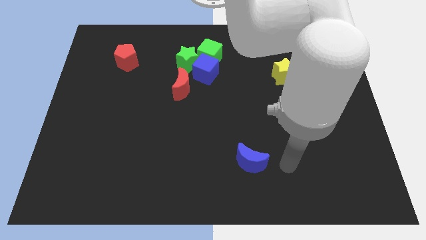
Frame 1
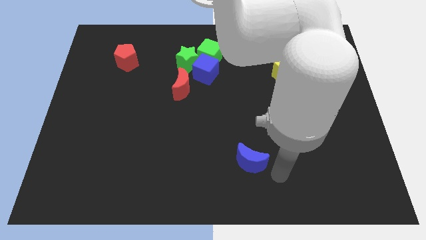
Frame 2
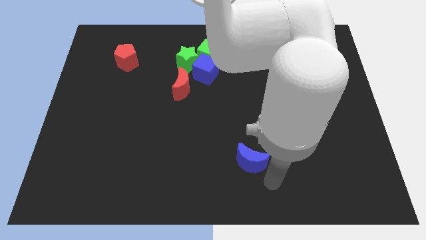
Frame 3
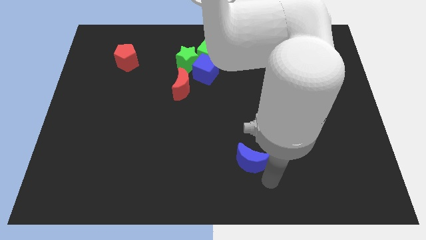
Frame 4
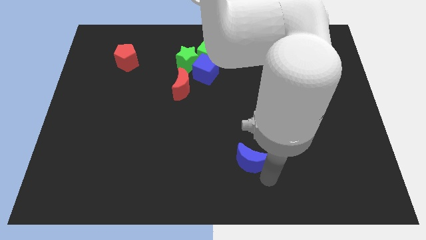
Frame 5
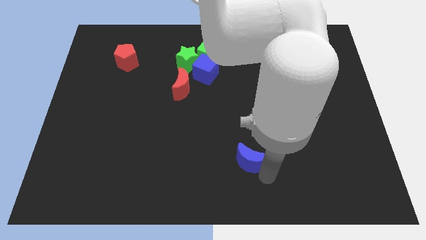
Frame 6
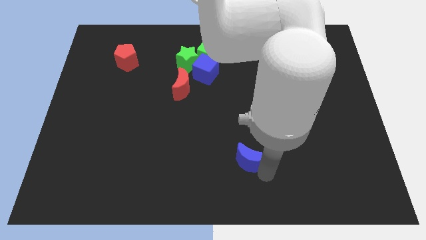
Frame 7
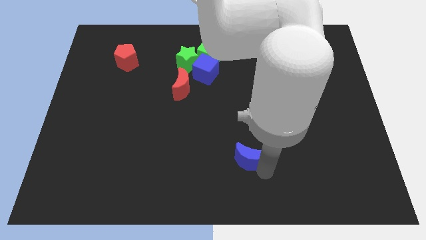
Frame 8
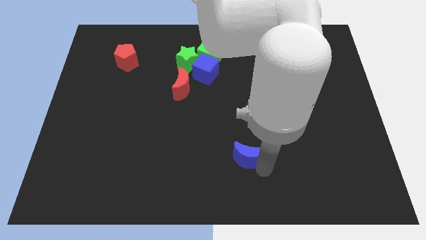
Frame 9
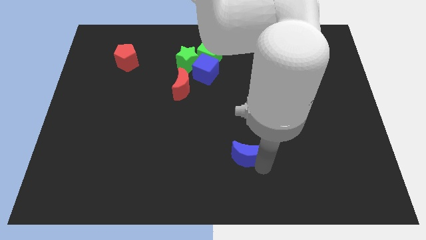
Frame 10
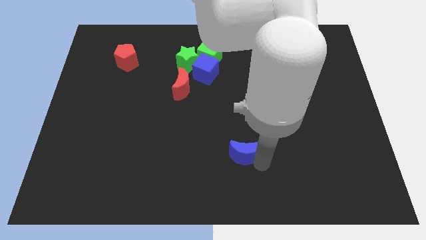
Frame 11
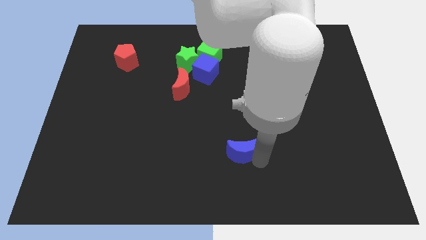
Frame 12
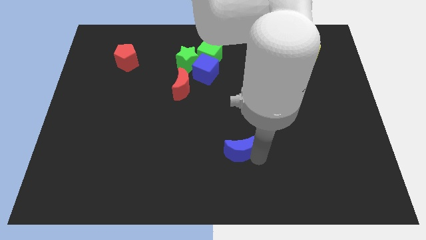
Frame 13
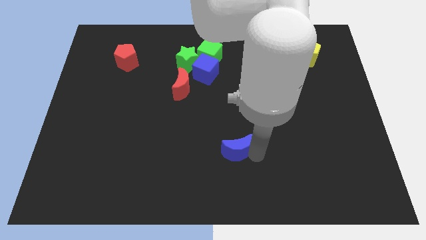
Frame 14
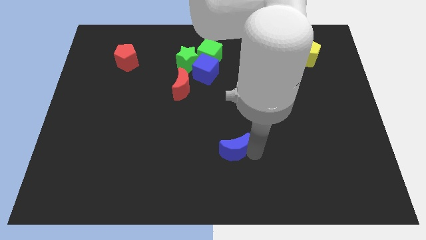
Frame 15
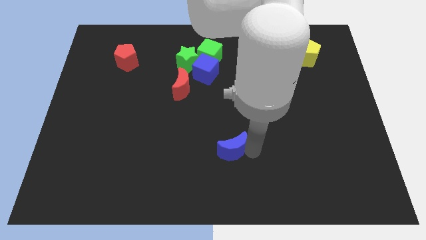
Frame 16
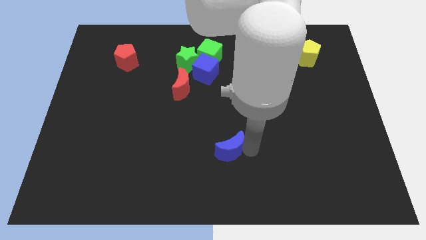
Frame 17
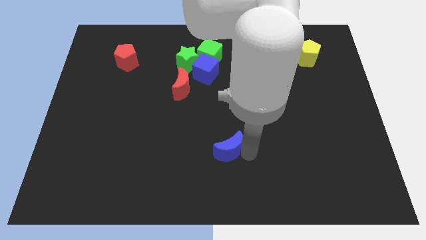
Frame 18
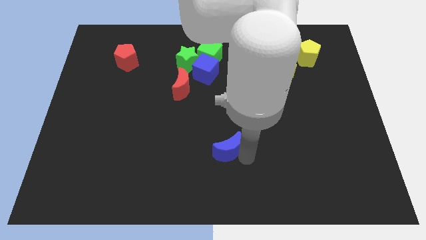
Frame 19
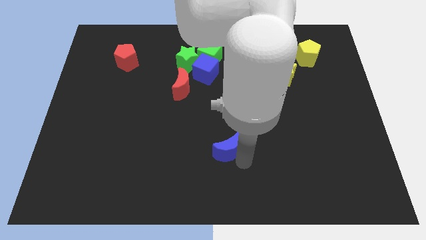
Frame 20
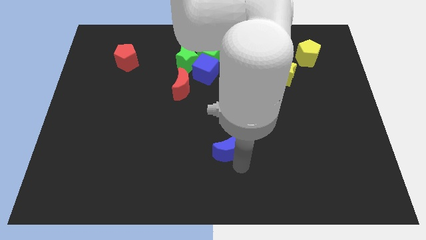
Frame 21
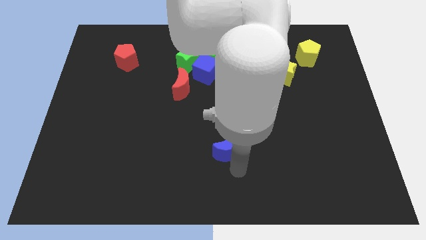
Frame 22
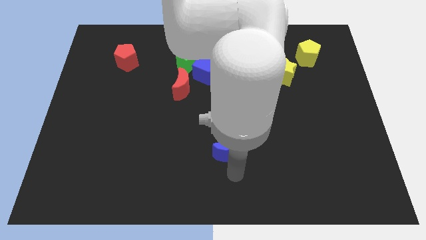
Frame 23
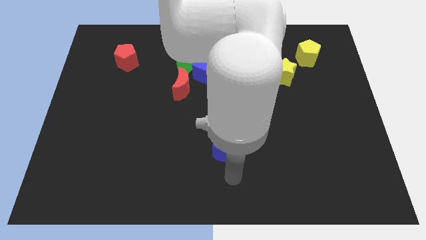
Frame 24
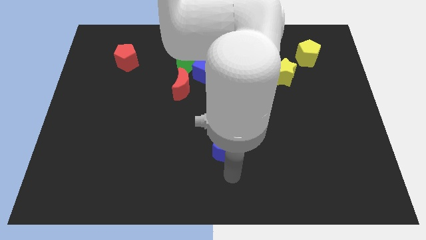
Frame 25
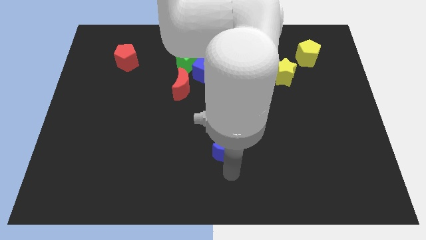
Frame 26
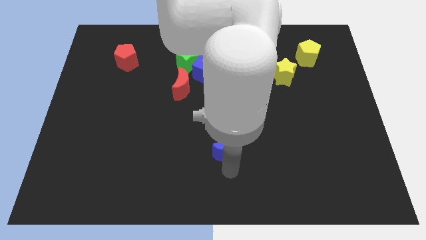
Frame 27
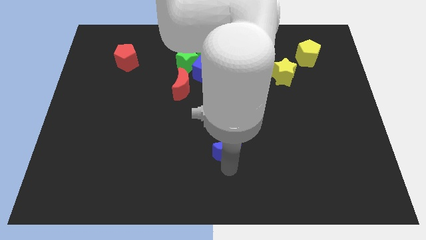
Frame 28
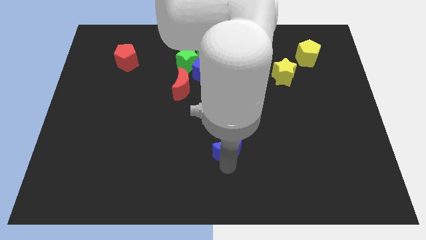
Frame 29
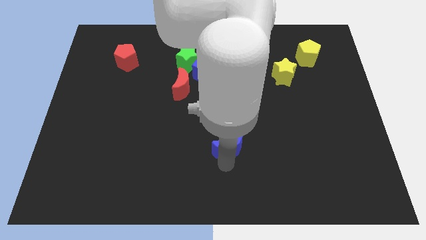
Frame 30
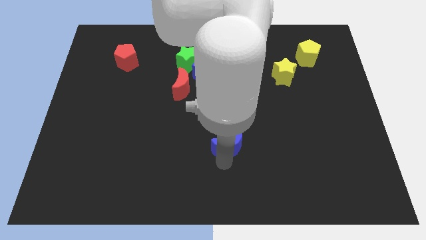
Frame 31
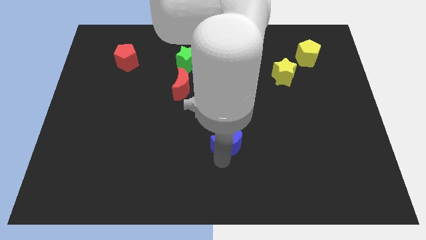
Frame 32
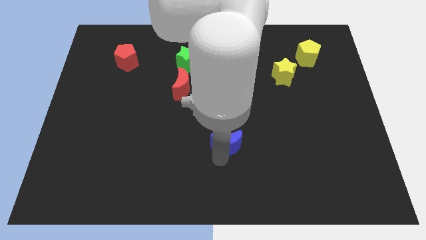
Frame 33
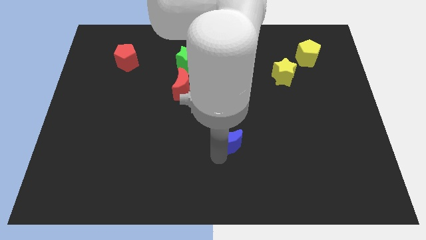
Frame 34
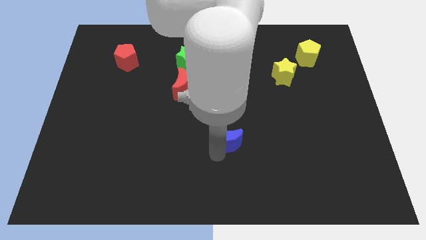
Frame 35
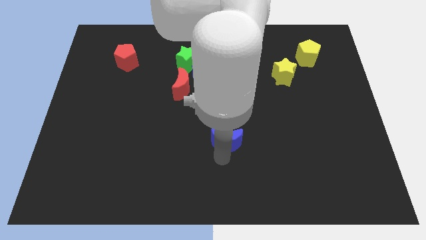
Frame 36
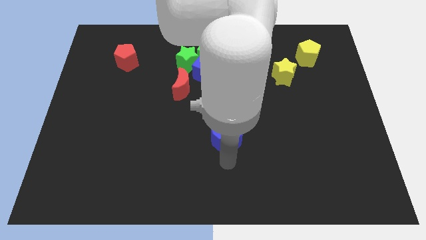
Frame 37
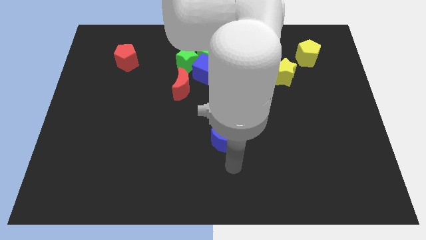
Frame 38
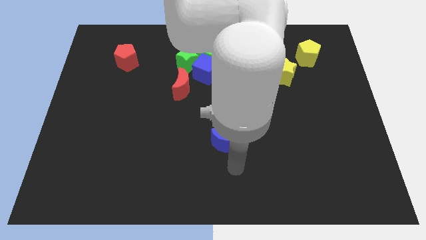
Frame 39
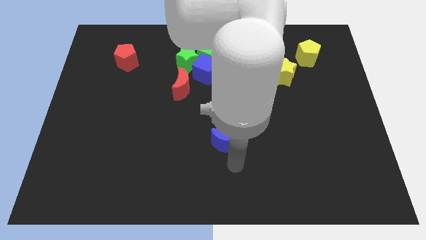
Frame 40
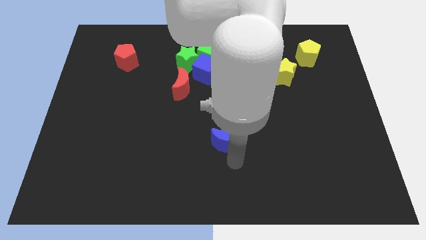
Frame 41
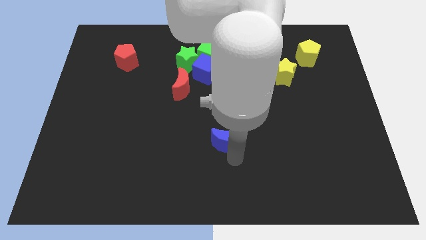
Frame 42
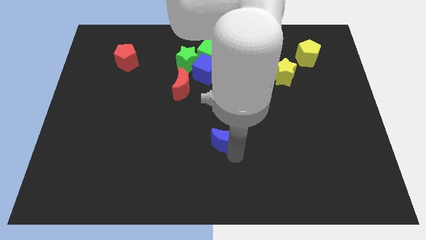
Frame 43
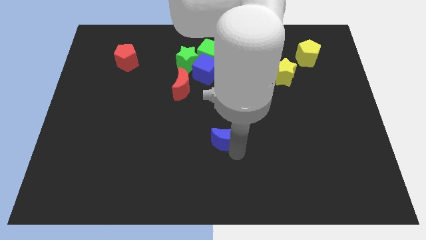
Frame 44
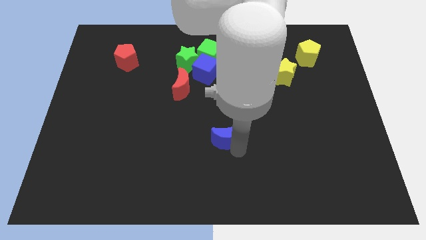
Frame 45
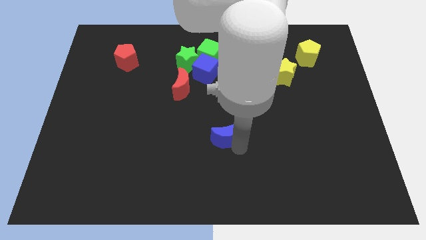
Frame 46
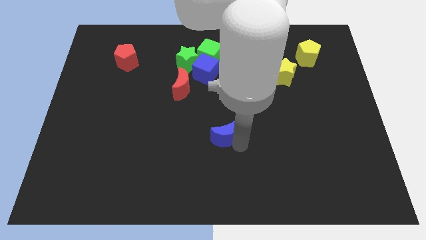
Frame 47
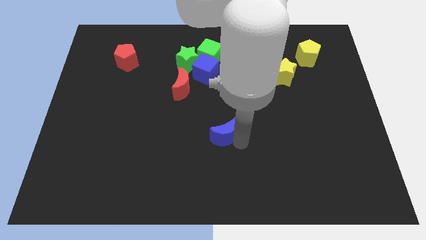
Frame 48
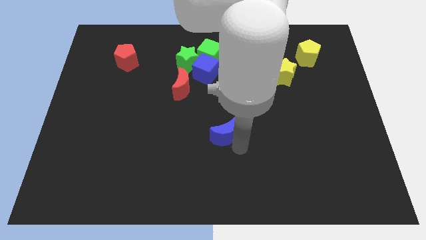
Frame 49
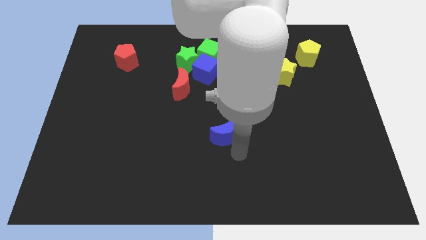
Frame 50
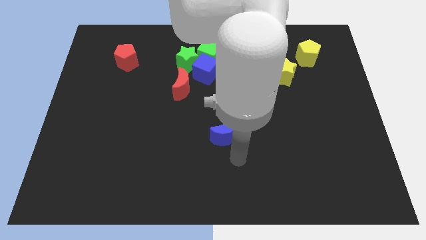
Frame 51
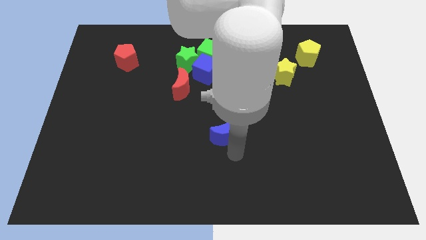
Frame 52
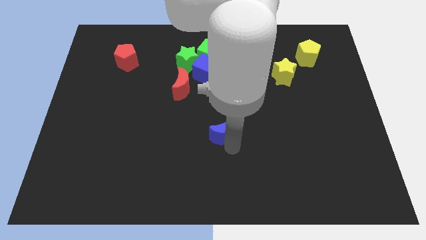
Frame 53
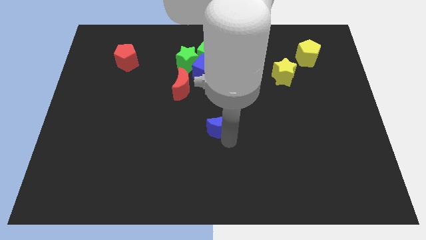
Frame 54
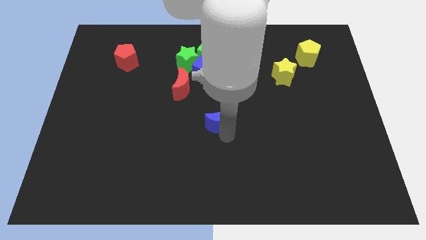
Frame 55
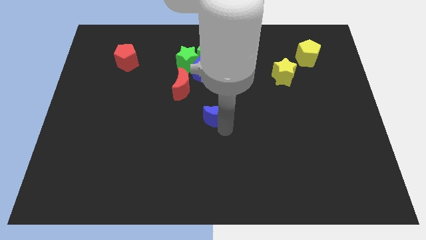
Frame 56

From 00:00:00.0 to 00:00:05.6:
put the blue moon to the bottom right of the red moon

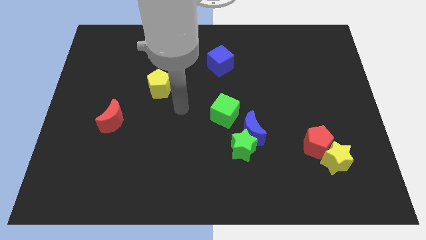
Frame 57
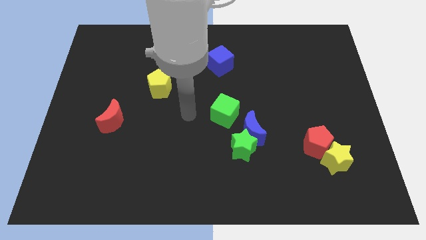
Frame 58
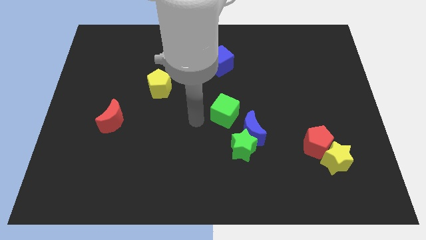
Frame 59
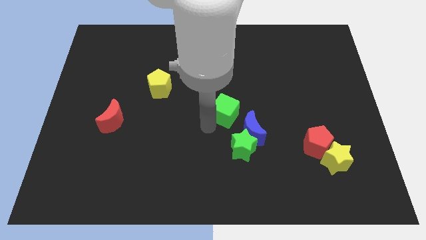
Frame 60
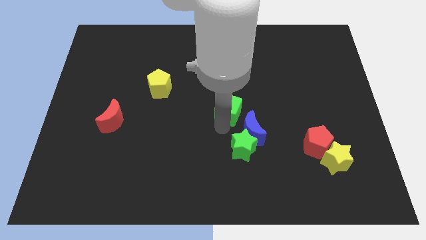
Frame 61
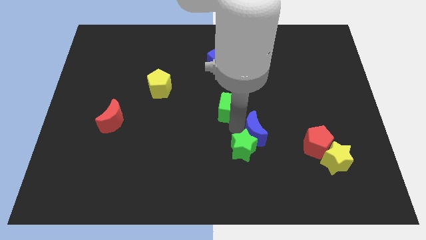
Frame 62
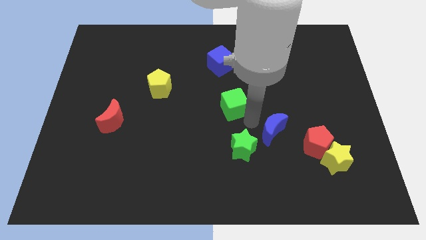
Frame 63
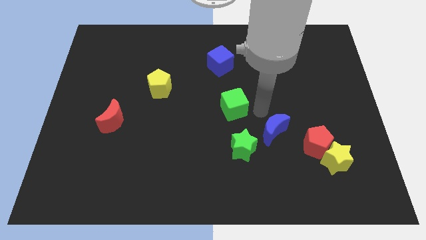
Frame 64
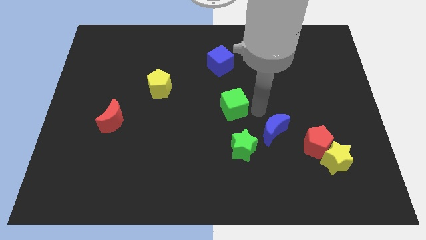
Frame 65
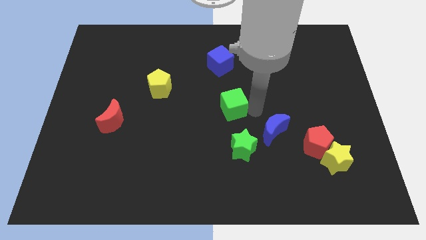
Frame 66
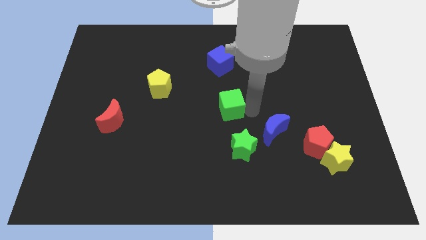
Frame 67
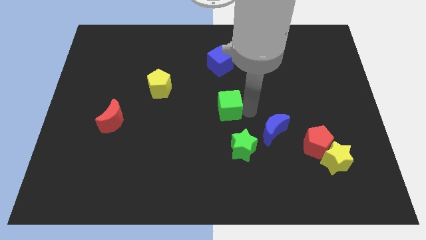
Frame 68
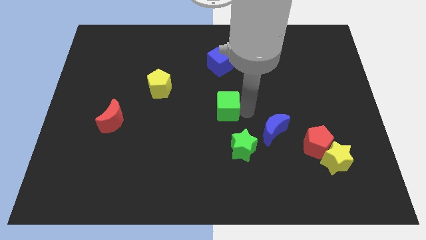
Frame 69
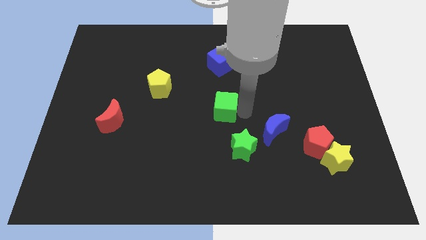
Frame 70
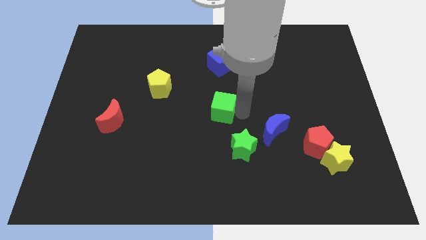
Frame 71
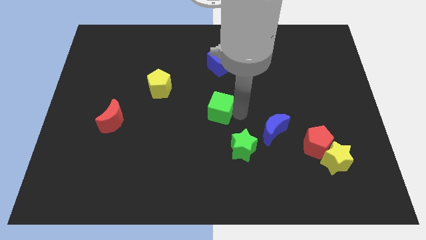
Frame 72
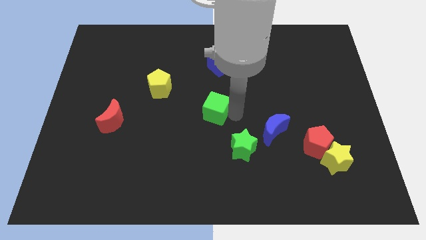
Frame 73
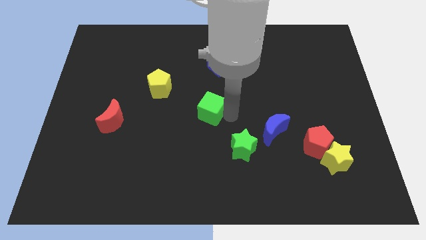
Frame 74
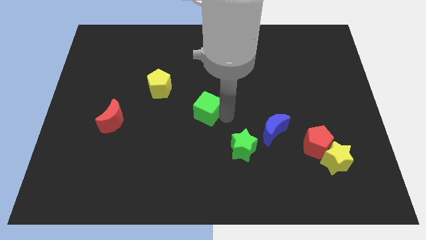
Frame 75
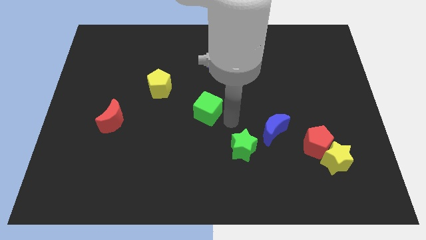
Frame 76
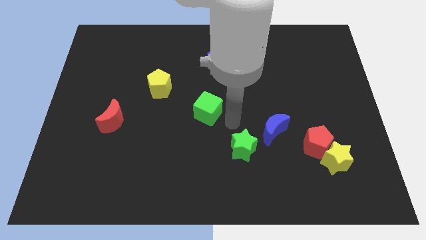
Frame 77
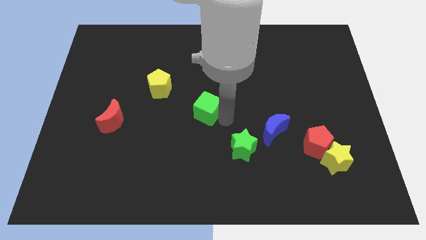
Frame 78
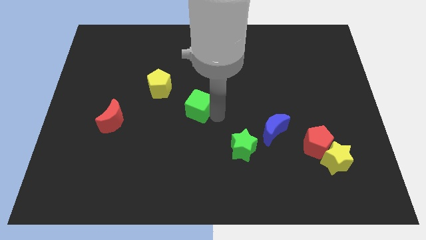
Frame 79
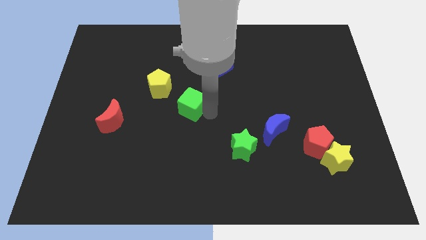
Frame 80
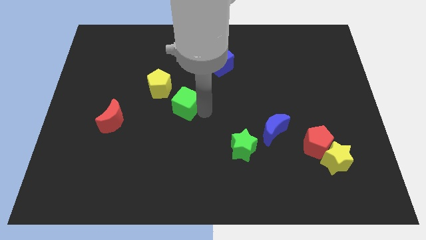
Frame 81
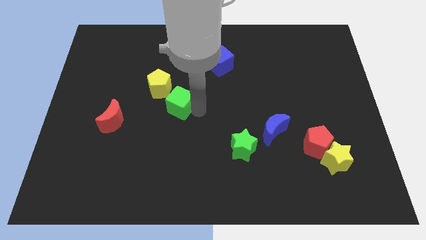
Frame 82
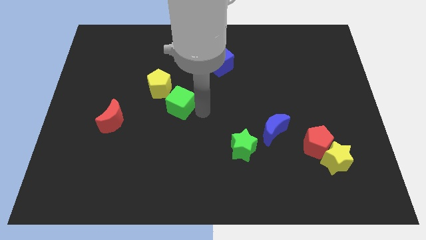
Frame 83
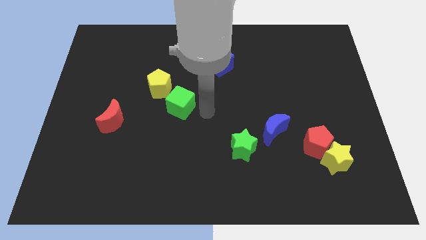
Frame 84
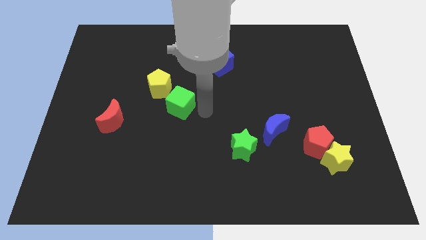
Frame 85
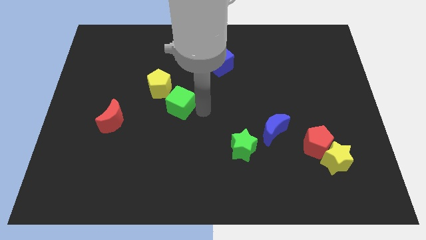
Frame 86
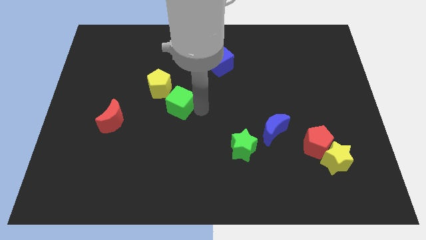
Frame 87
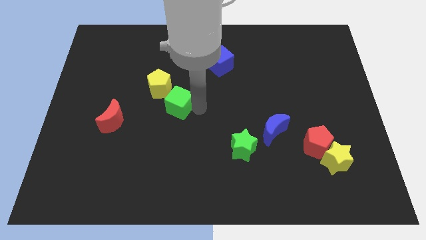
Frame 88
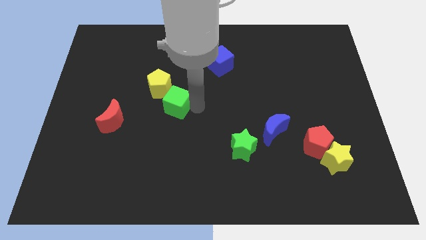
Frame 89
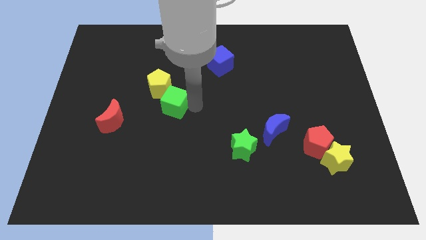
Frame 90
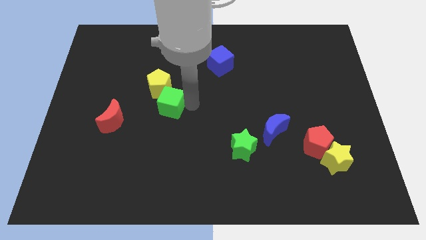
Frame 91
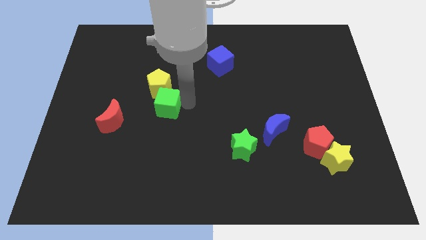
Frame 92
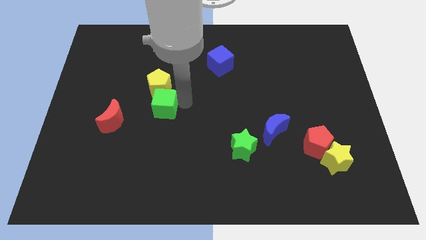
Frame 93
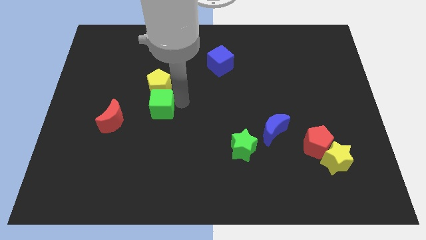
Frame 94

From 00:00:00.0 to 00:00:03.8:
push the green cube to the bottom left of the yellow pentagon
